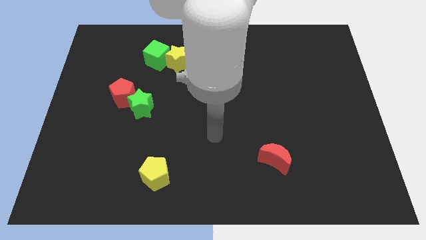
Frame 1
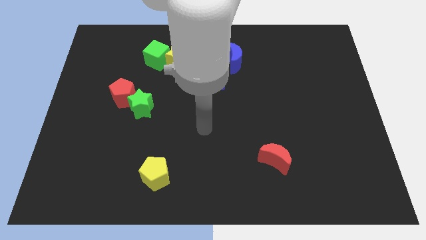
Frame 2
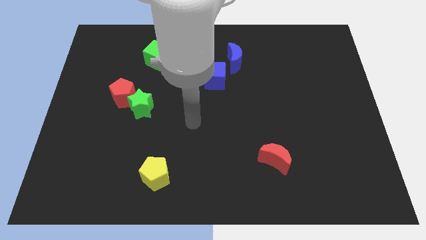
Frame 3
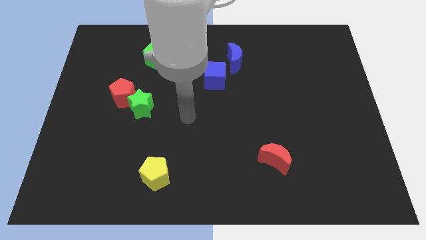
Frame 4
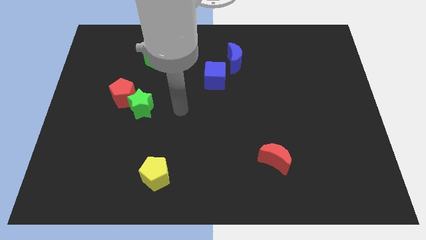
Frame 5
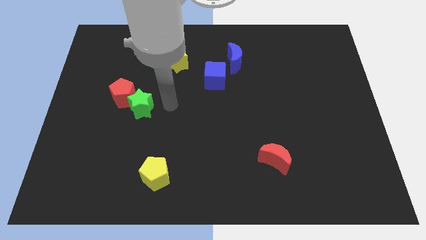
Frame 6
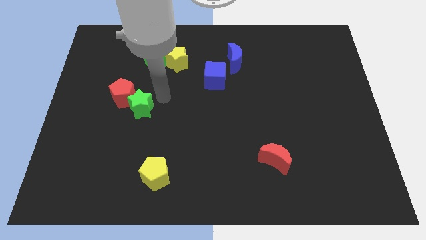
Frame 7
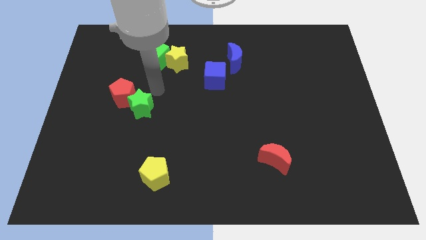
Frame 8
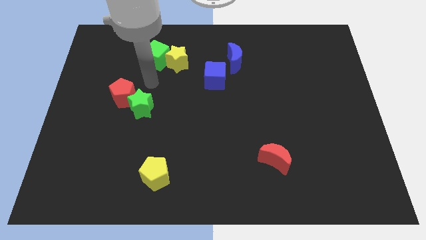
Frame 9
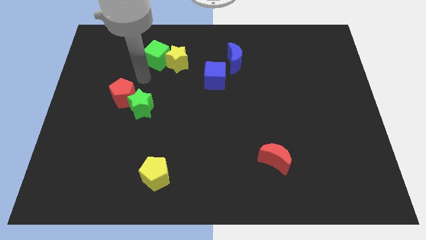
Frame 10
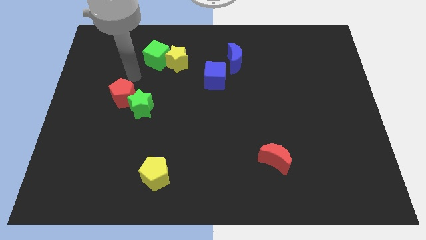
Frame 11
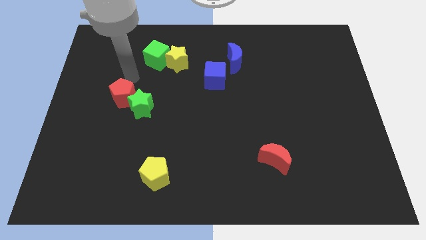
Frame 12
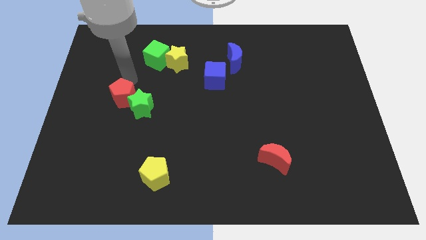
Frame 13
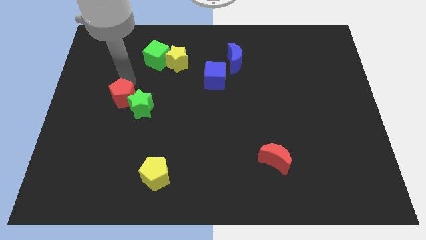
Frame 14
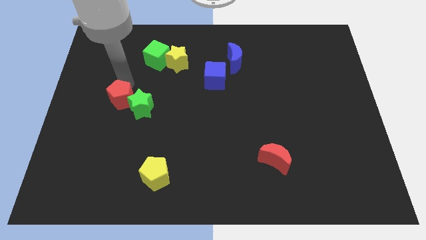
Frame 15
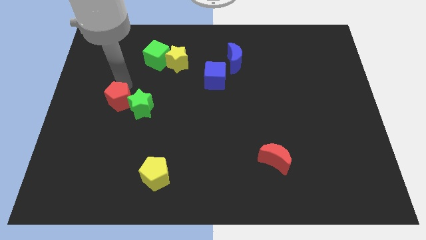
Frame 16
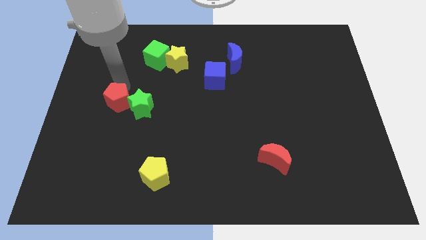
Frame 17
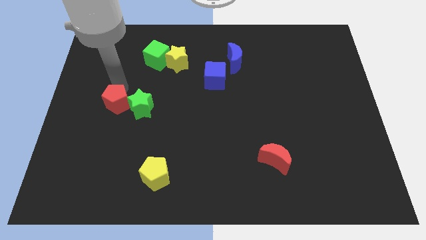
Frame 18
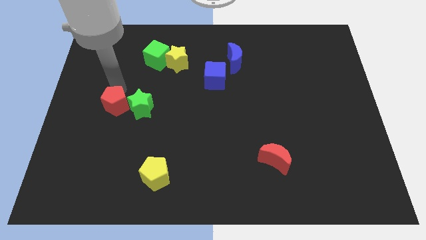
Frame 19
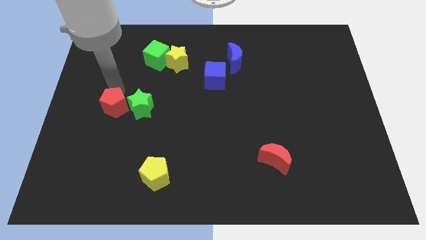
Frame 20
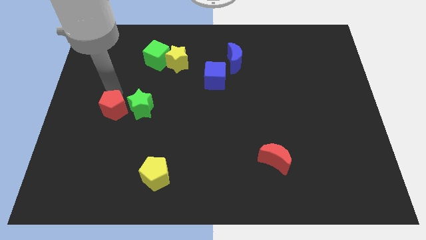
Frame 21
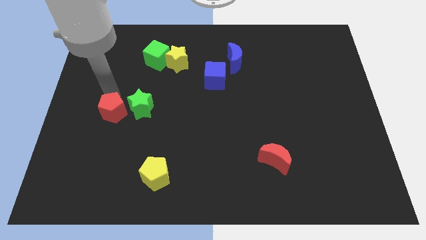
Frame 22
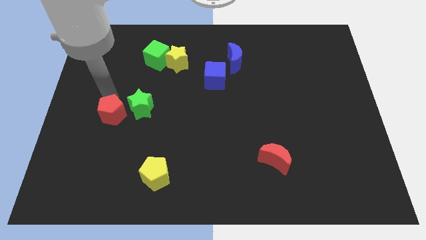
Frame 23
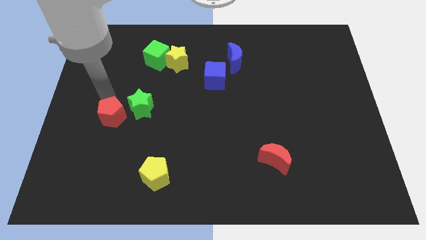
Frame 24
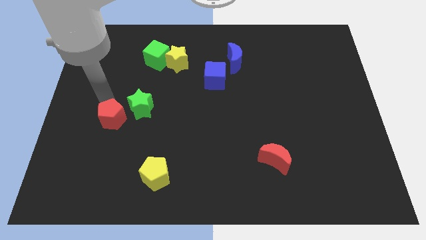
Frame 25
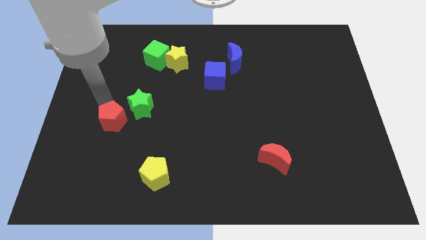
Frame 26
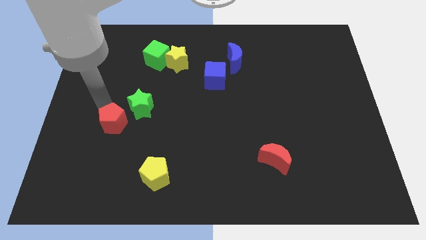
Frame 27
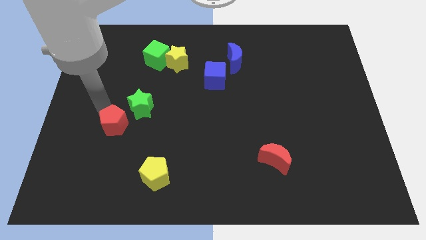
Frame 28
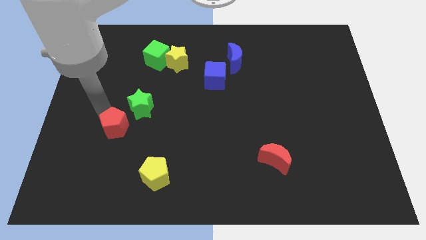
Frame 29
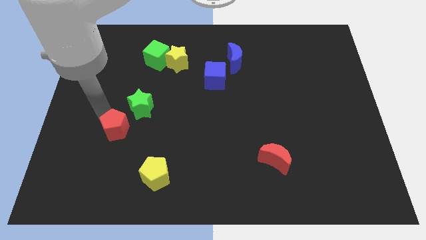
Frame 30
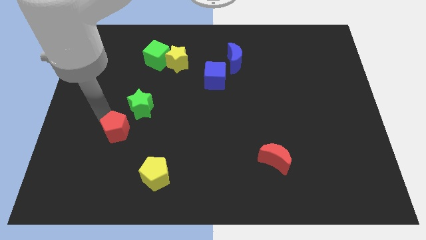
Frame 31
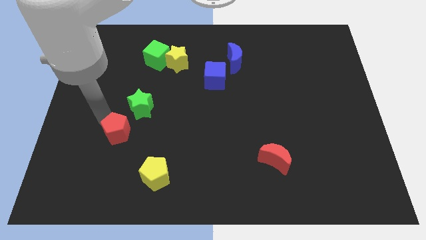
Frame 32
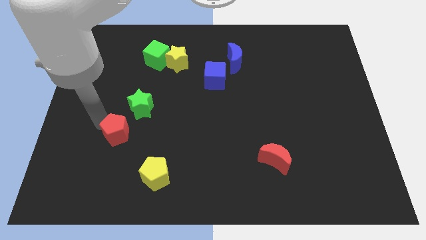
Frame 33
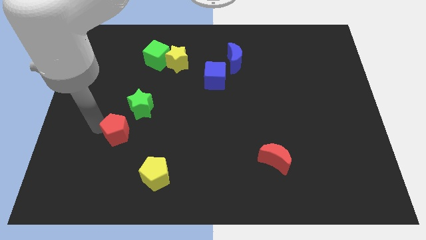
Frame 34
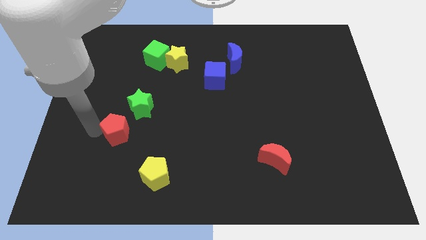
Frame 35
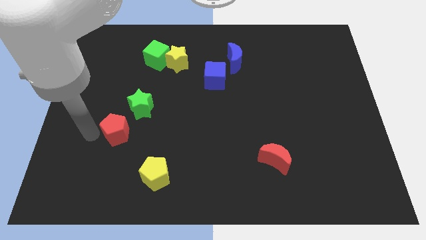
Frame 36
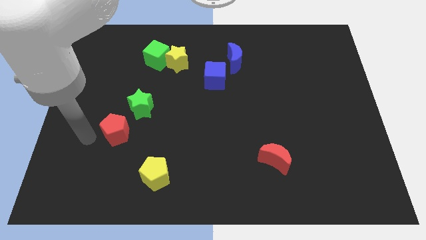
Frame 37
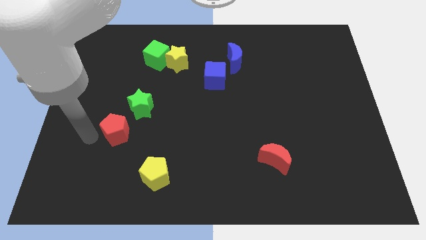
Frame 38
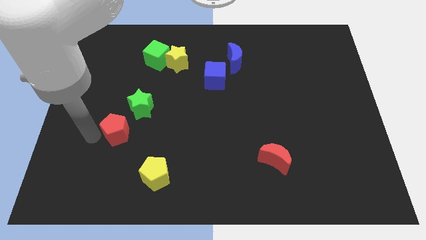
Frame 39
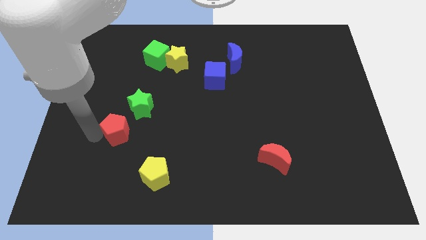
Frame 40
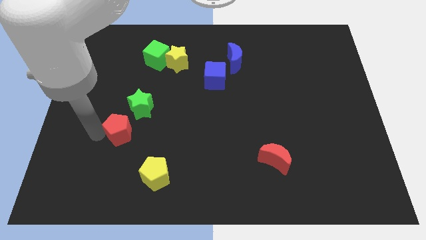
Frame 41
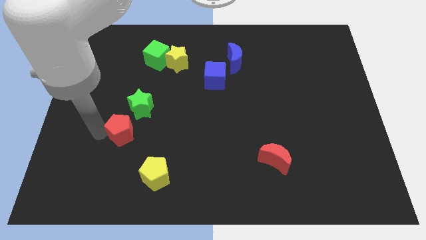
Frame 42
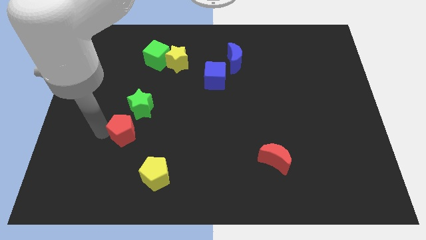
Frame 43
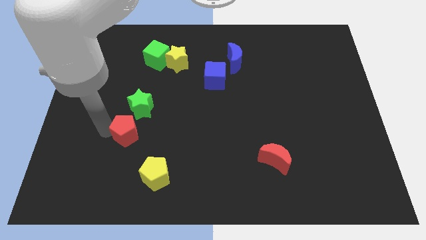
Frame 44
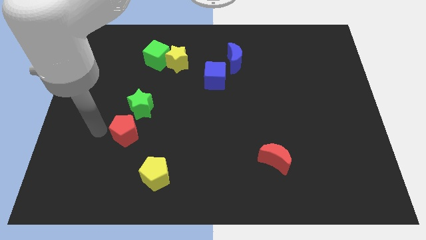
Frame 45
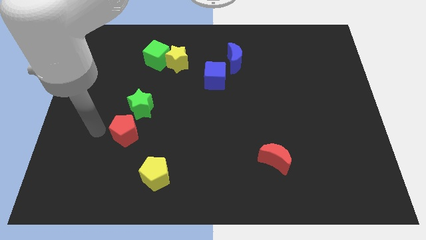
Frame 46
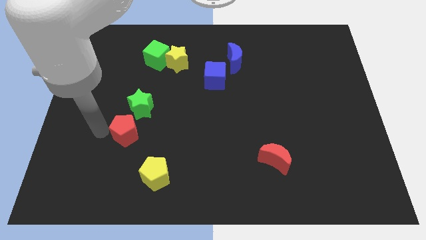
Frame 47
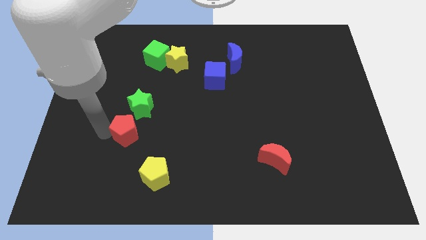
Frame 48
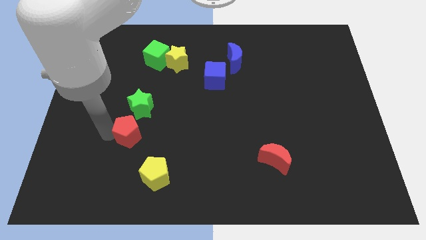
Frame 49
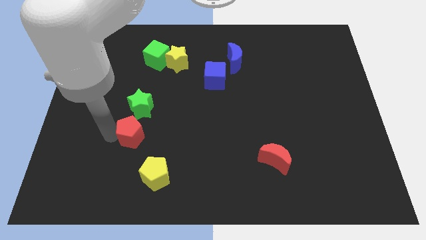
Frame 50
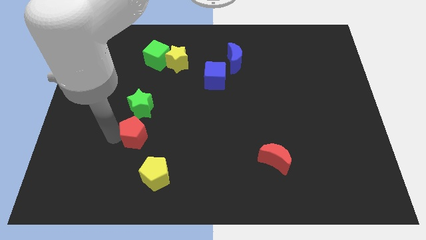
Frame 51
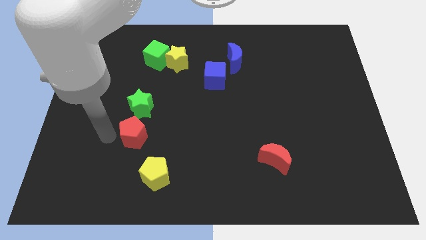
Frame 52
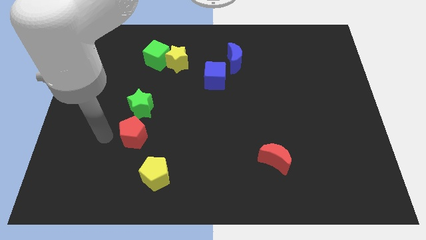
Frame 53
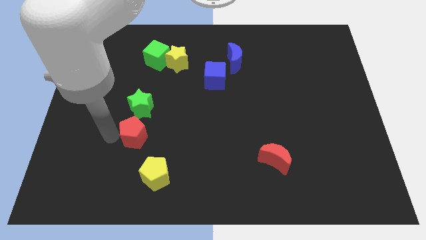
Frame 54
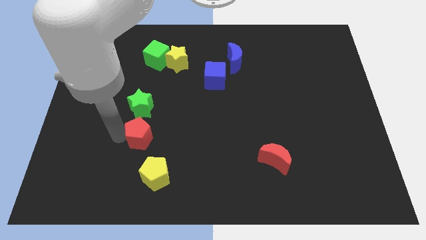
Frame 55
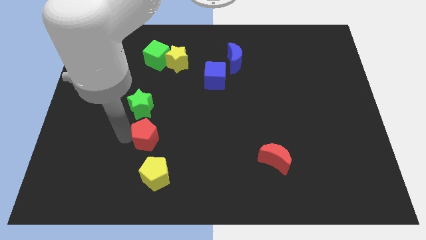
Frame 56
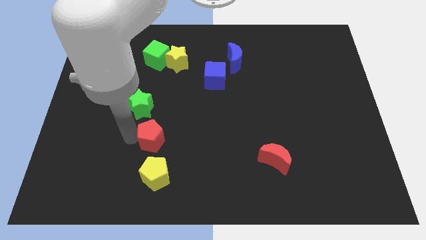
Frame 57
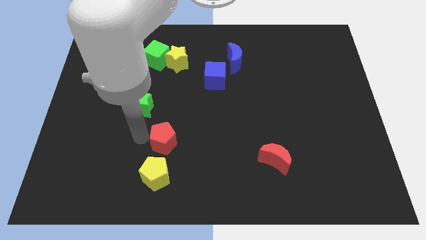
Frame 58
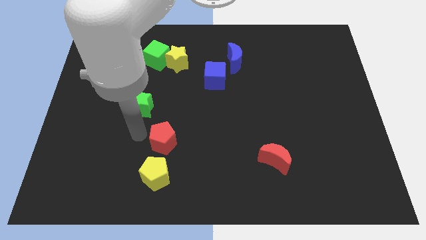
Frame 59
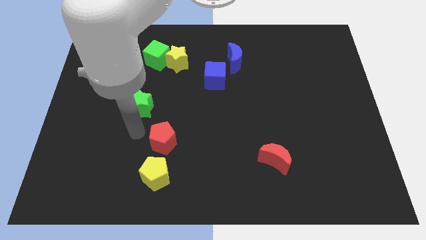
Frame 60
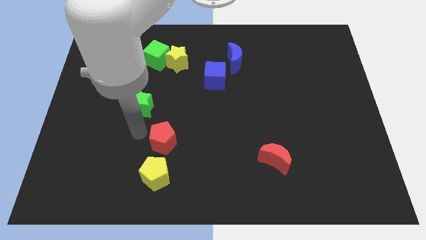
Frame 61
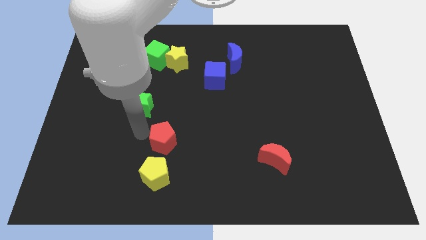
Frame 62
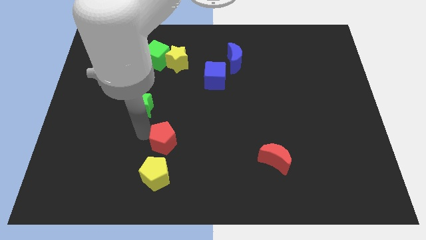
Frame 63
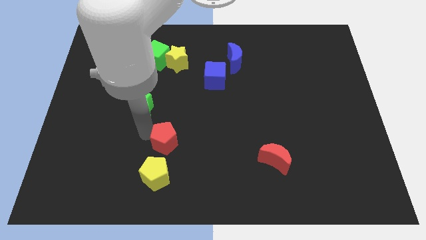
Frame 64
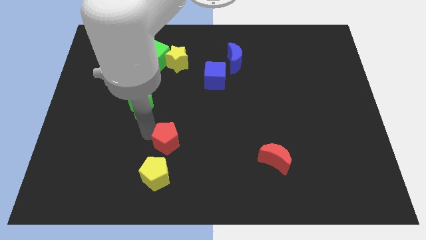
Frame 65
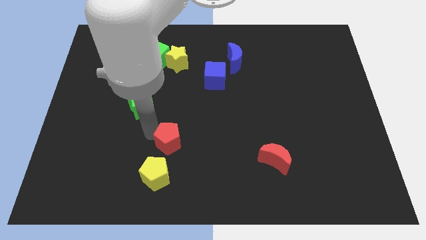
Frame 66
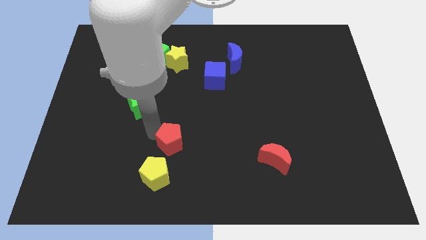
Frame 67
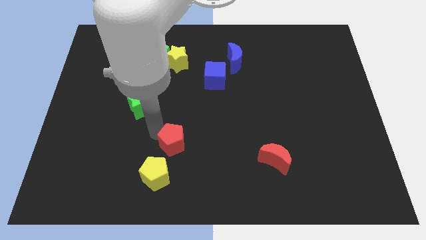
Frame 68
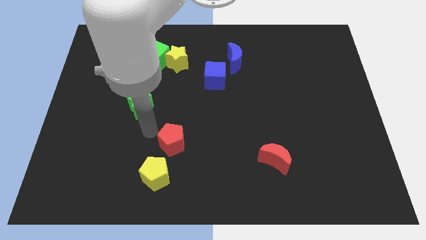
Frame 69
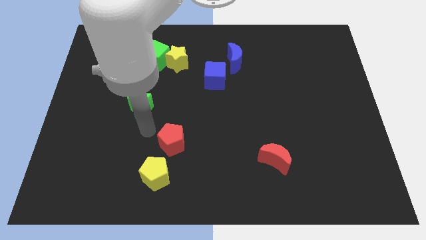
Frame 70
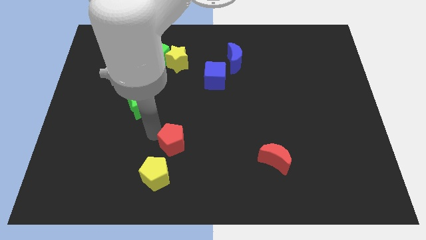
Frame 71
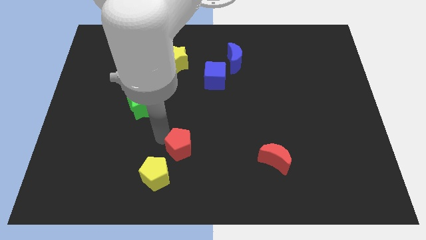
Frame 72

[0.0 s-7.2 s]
slide the red pentagon down and to the right diagonally

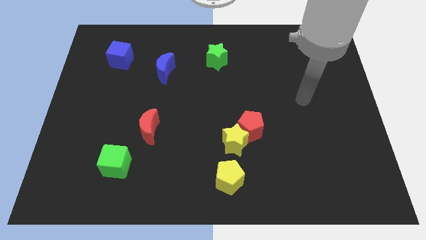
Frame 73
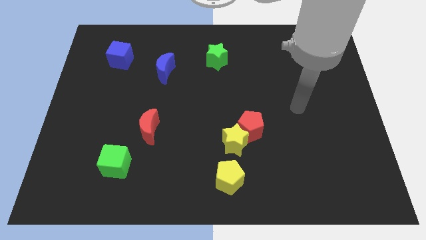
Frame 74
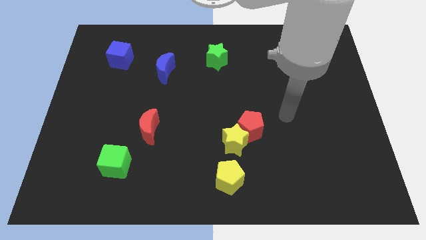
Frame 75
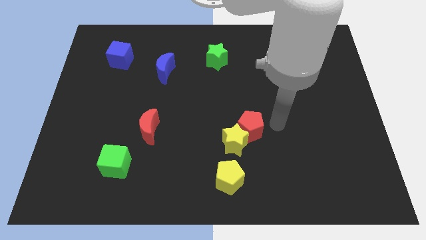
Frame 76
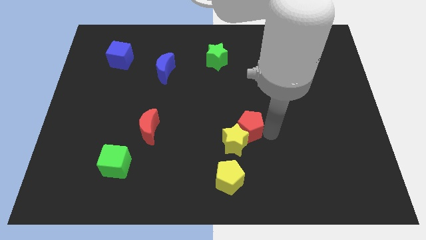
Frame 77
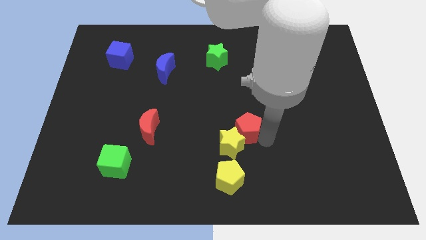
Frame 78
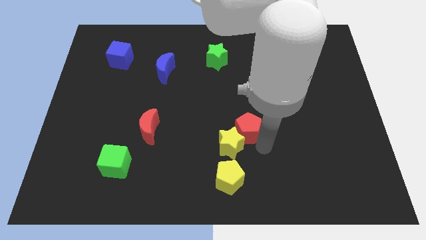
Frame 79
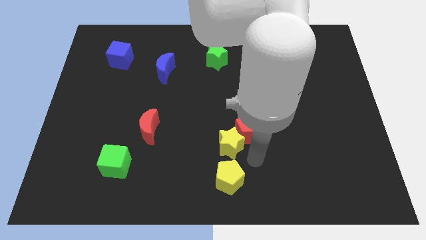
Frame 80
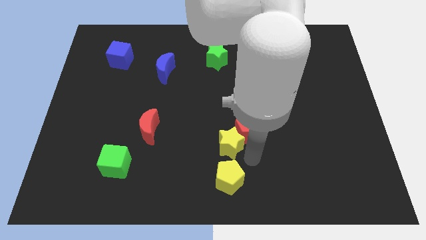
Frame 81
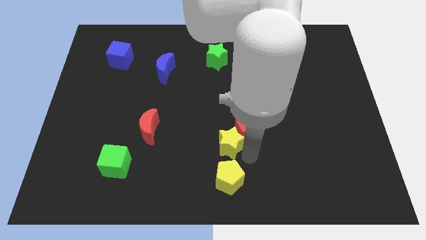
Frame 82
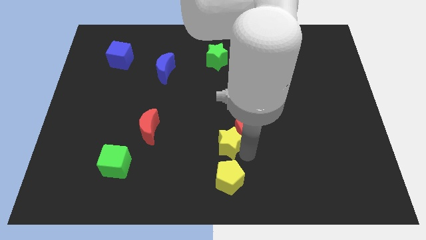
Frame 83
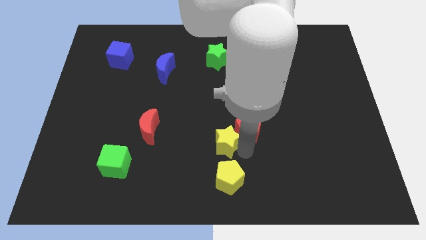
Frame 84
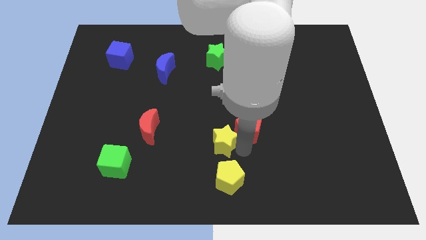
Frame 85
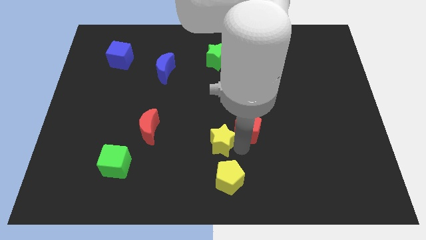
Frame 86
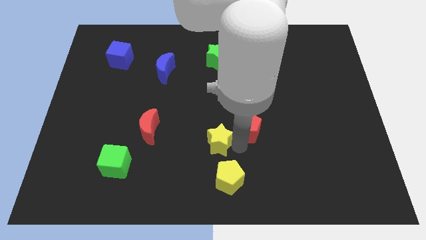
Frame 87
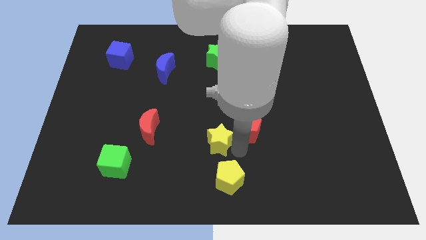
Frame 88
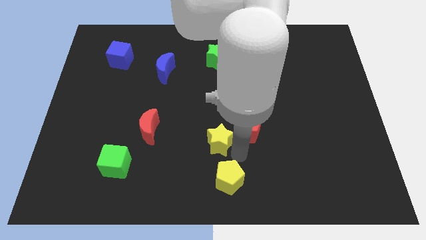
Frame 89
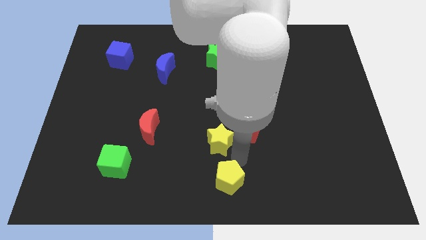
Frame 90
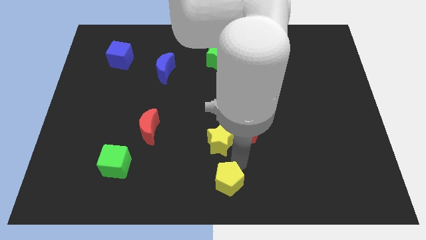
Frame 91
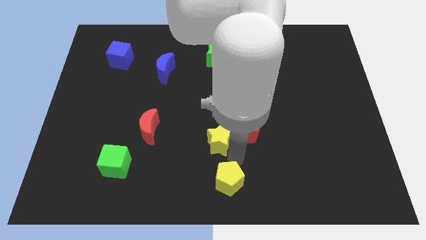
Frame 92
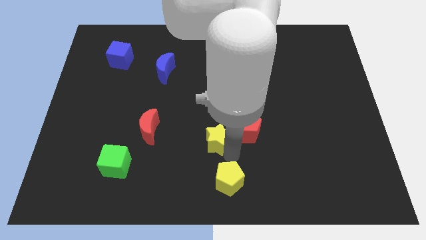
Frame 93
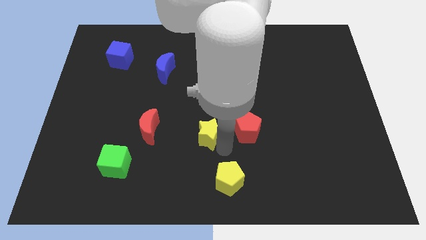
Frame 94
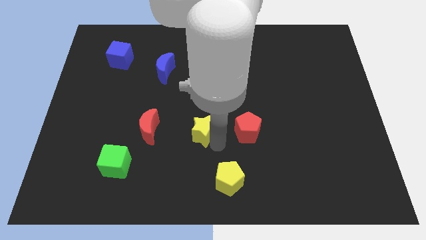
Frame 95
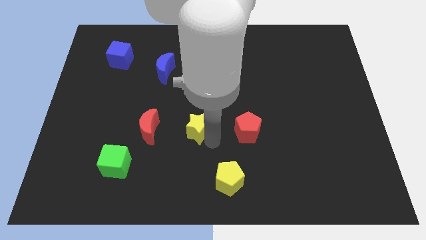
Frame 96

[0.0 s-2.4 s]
slide the yellow star a little bit up and left diagonally
